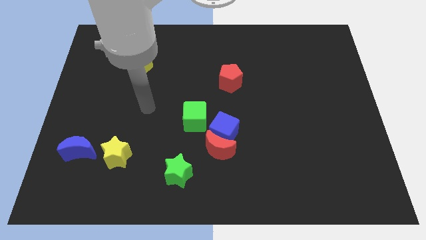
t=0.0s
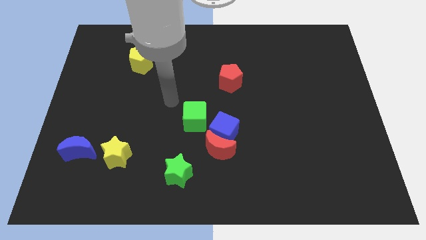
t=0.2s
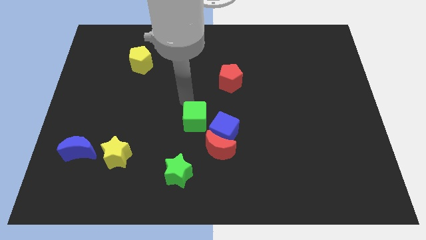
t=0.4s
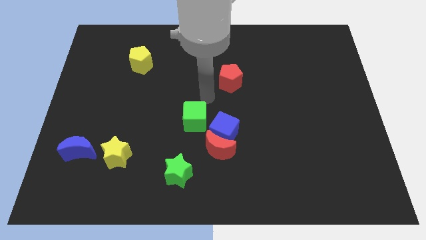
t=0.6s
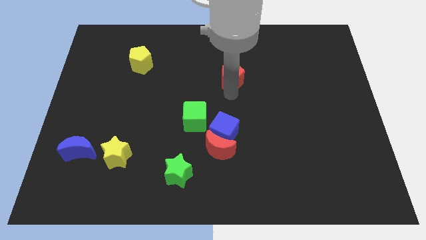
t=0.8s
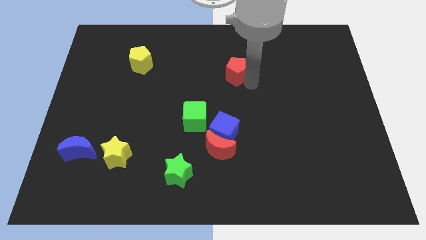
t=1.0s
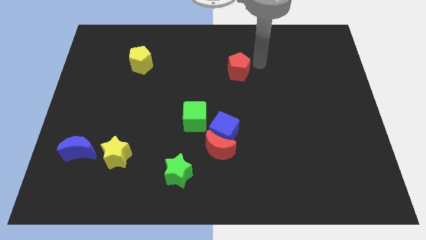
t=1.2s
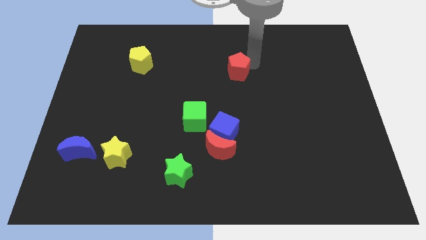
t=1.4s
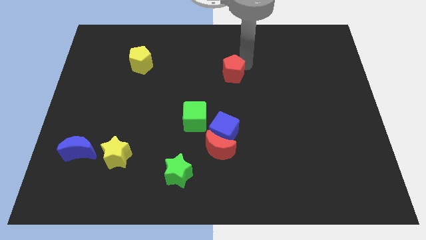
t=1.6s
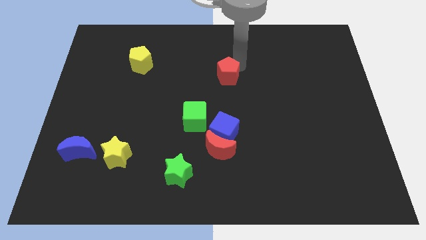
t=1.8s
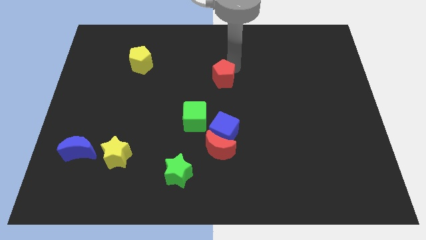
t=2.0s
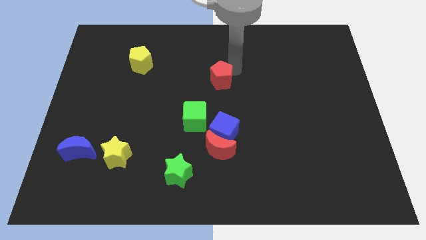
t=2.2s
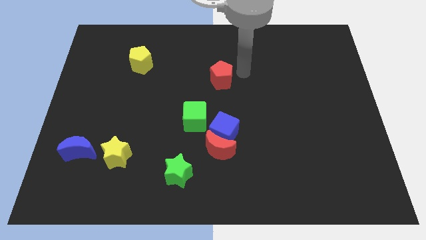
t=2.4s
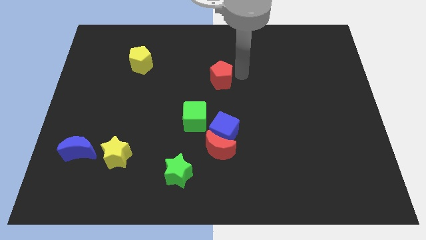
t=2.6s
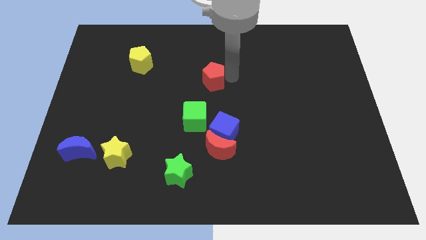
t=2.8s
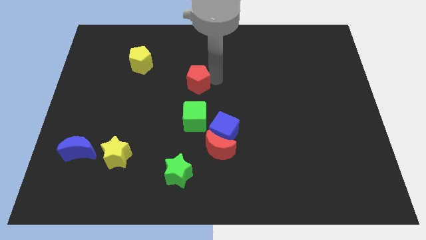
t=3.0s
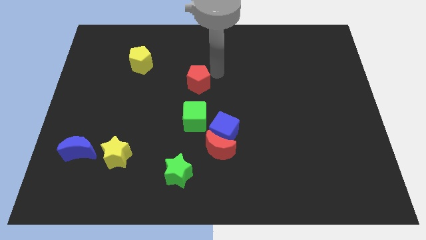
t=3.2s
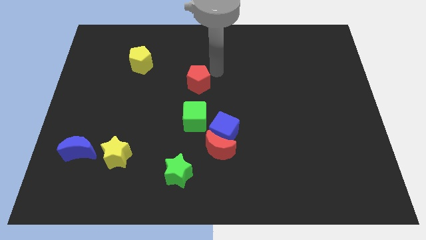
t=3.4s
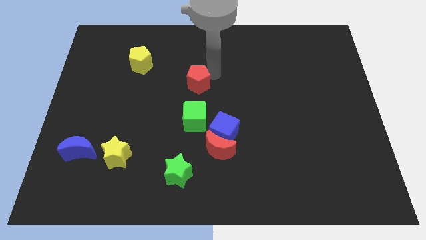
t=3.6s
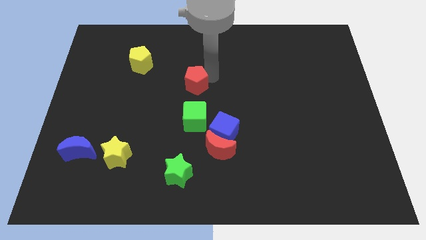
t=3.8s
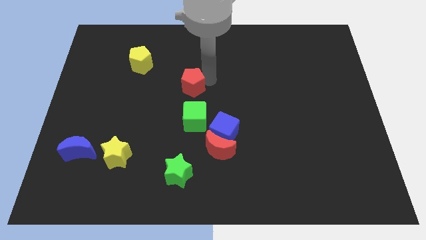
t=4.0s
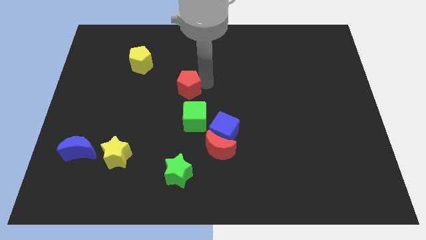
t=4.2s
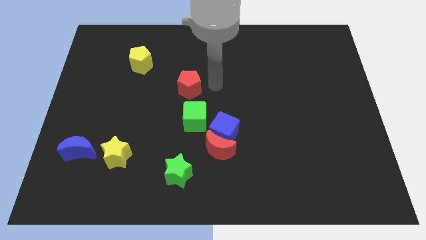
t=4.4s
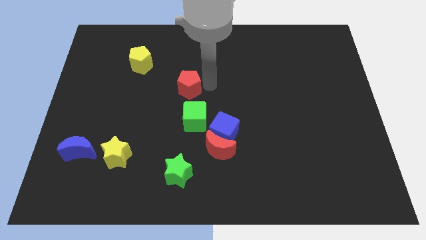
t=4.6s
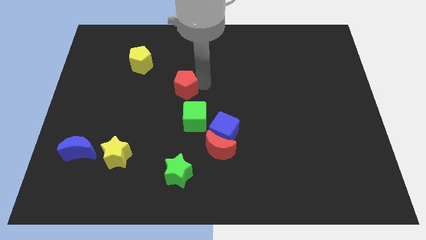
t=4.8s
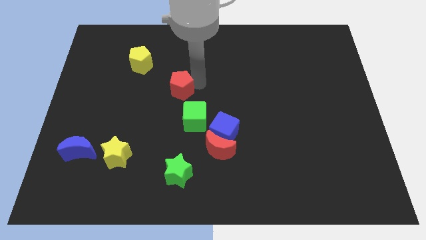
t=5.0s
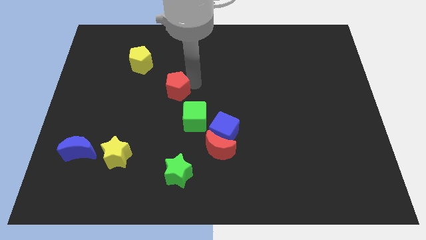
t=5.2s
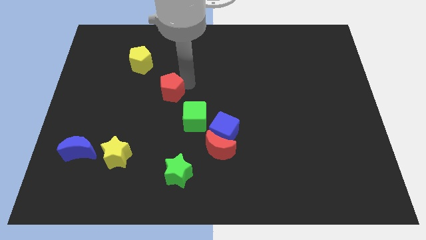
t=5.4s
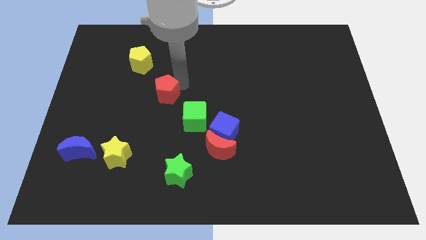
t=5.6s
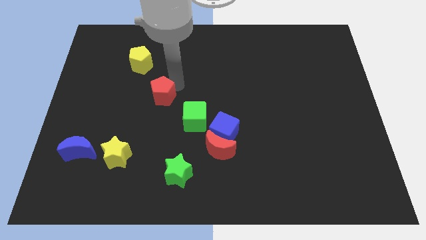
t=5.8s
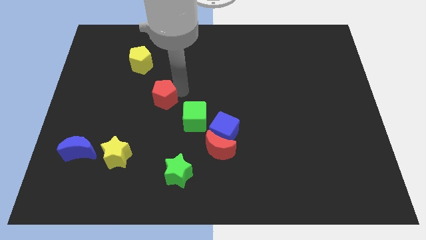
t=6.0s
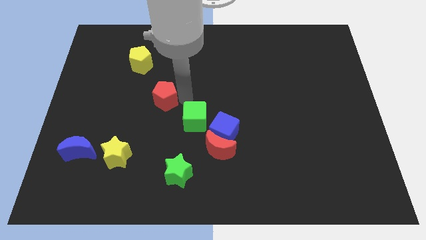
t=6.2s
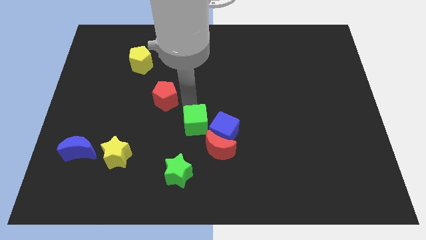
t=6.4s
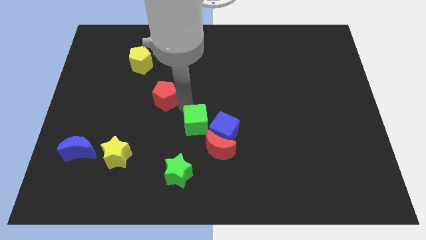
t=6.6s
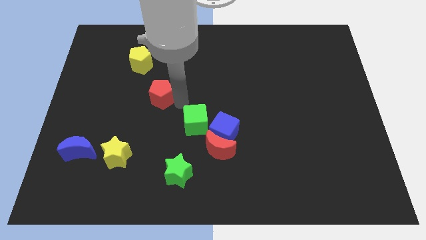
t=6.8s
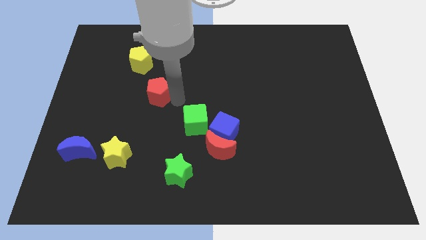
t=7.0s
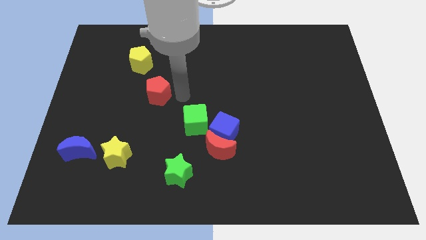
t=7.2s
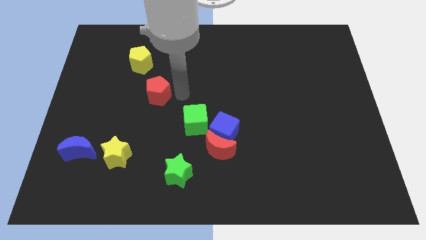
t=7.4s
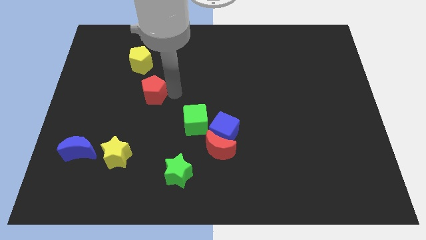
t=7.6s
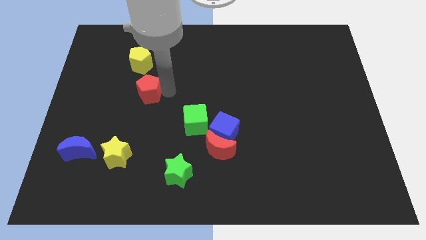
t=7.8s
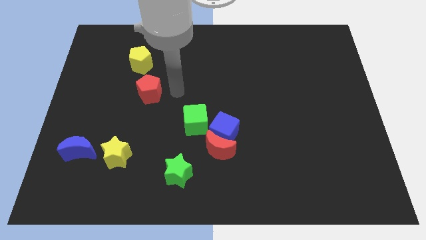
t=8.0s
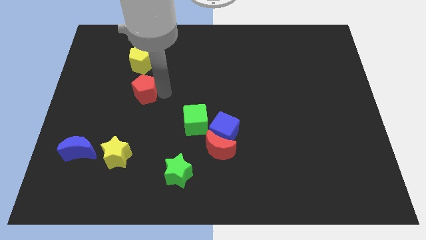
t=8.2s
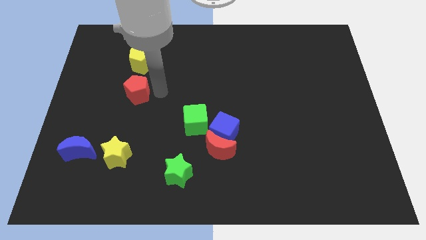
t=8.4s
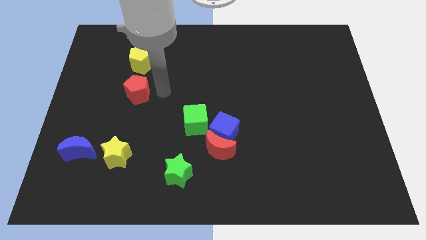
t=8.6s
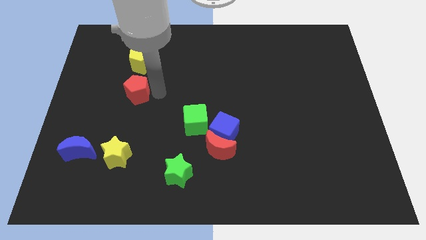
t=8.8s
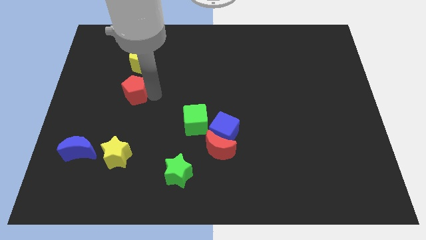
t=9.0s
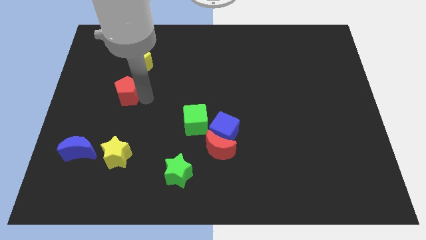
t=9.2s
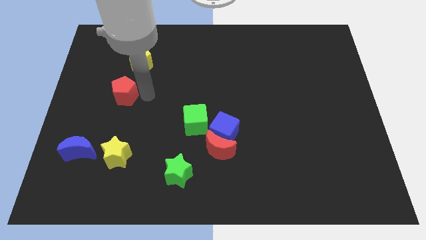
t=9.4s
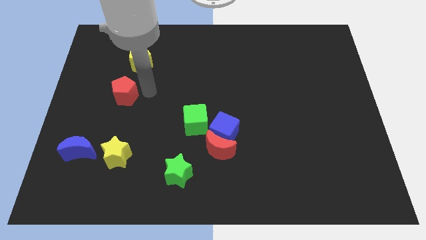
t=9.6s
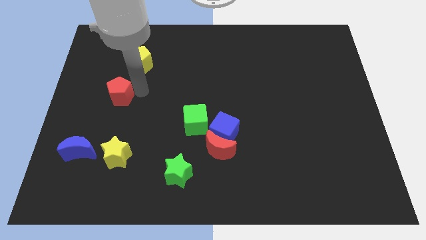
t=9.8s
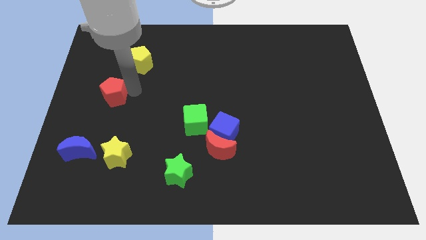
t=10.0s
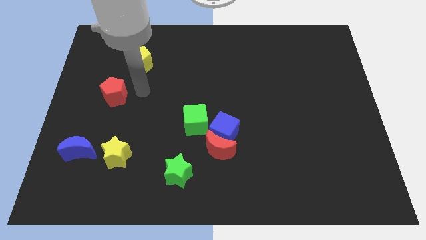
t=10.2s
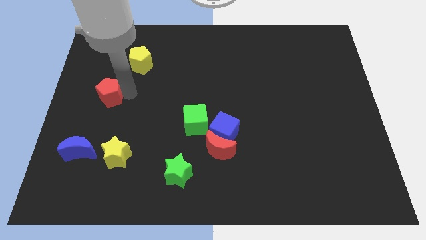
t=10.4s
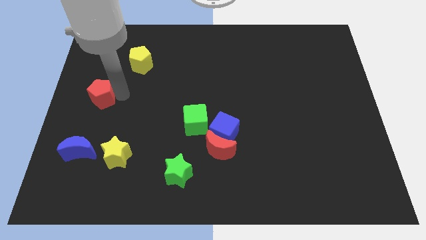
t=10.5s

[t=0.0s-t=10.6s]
slide the red pentagon to the left side of the board

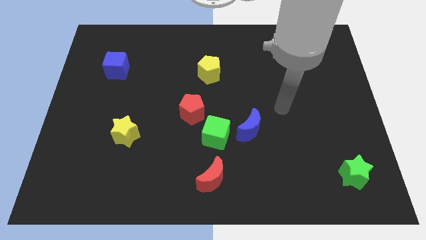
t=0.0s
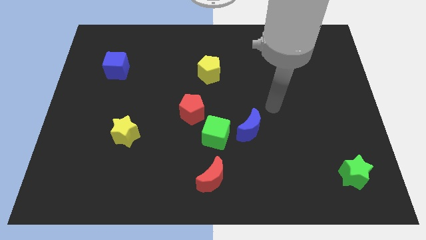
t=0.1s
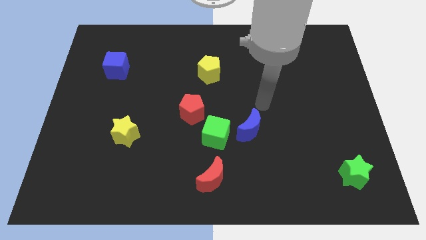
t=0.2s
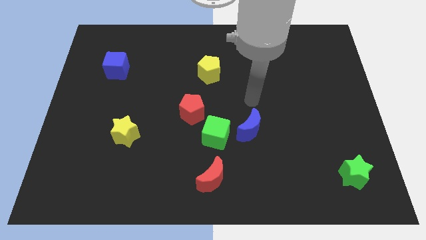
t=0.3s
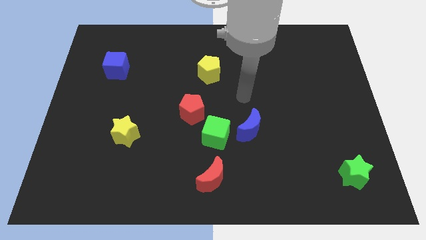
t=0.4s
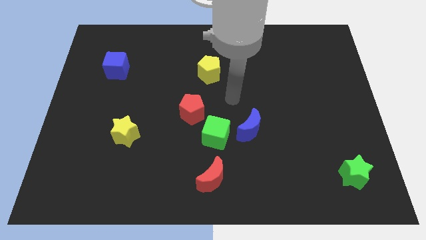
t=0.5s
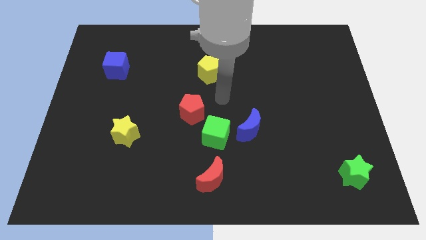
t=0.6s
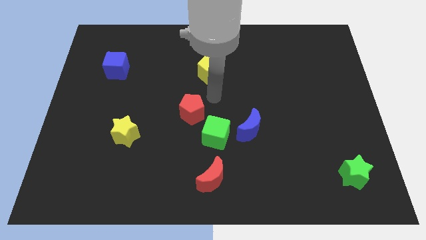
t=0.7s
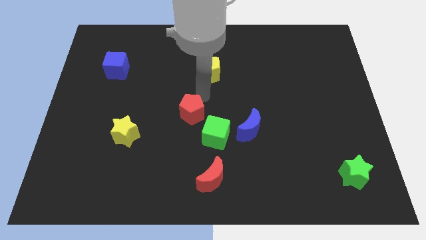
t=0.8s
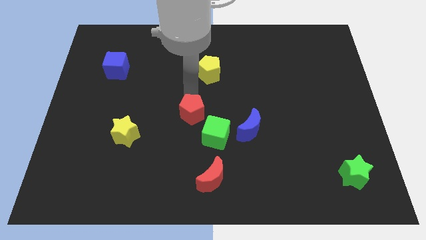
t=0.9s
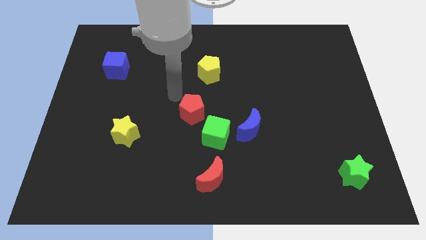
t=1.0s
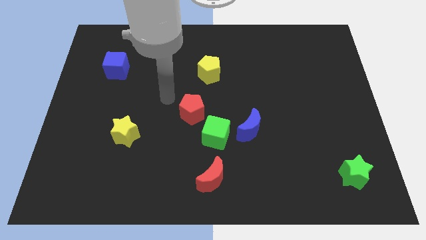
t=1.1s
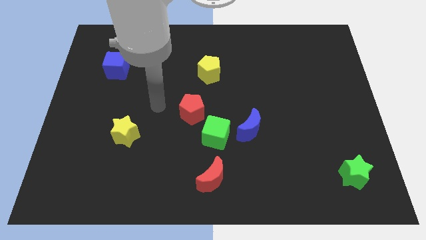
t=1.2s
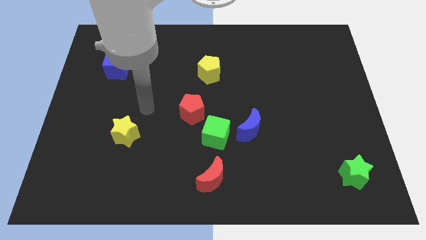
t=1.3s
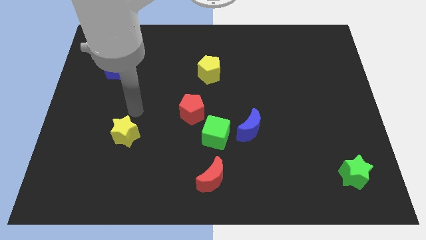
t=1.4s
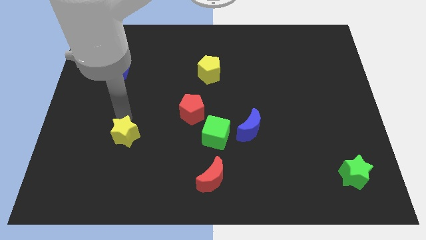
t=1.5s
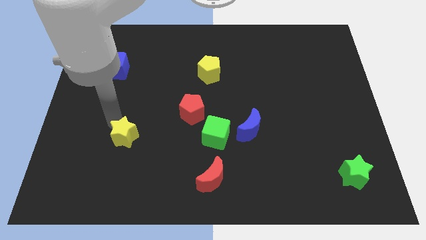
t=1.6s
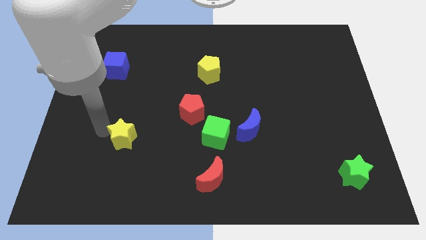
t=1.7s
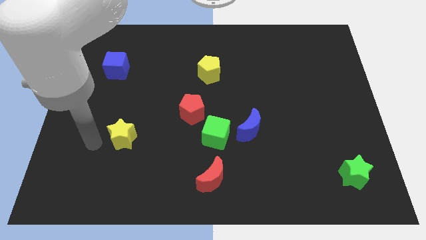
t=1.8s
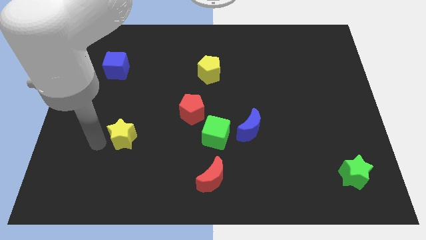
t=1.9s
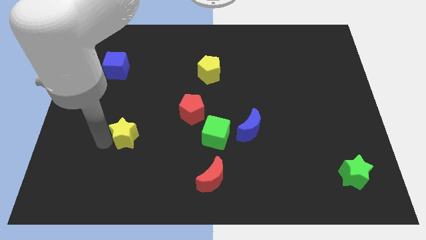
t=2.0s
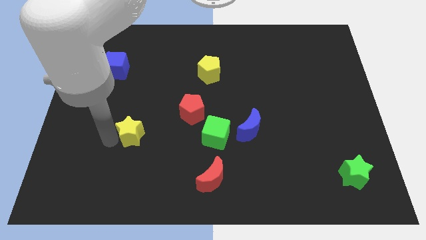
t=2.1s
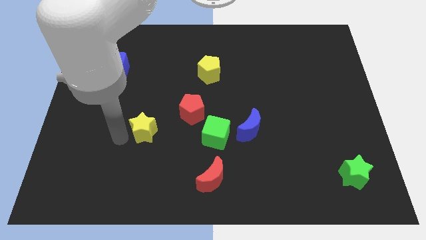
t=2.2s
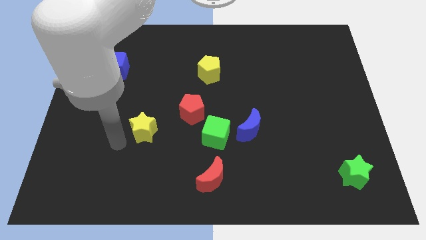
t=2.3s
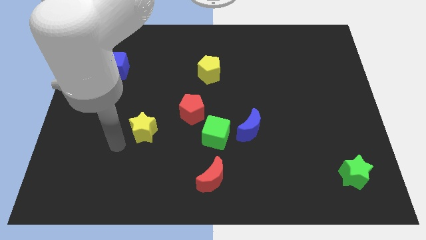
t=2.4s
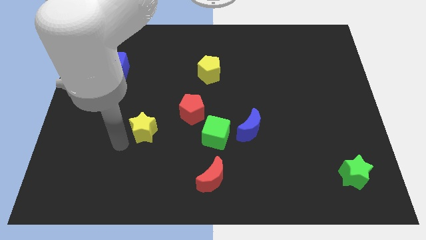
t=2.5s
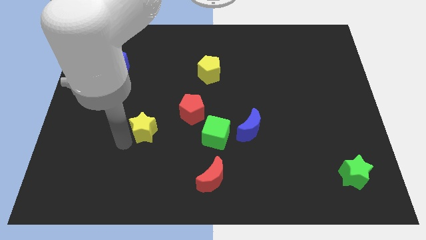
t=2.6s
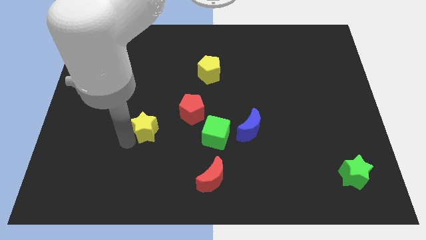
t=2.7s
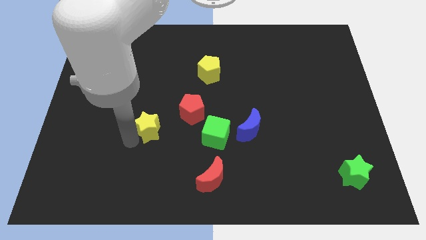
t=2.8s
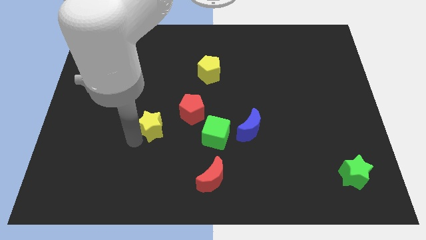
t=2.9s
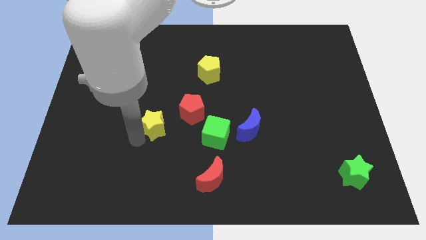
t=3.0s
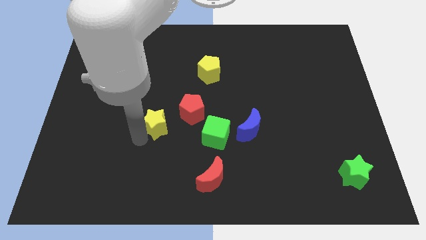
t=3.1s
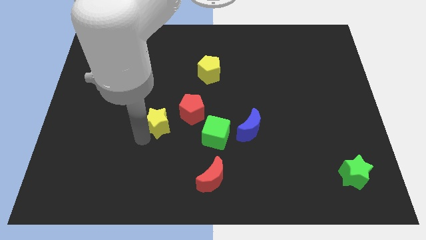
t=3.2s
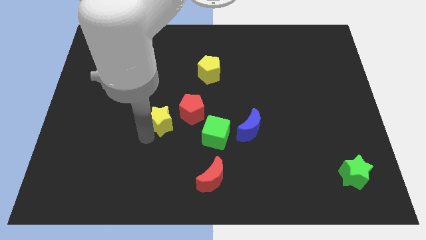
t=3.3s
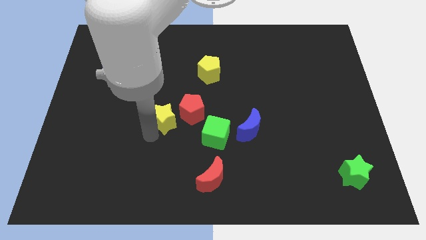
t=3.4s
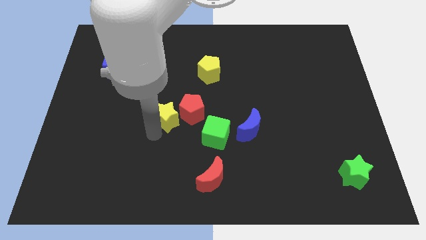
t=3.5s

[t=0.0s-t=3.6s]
put the yellow star to the middle
